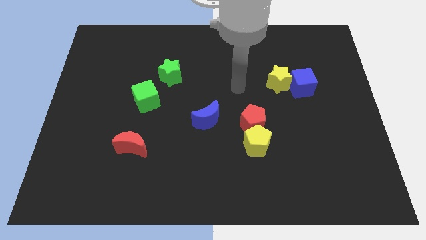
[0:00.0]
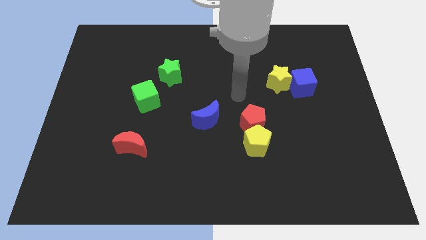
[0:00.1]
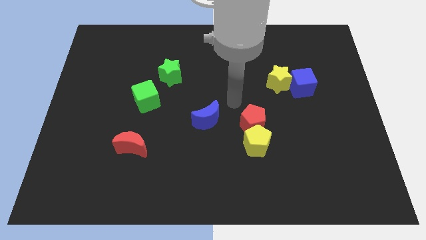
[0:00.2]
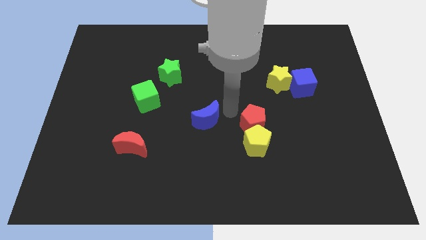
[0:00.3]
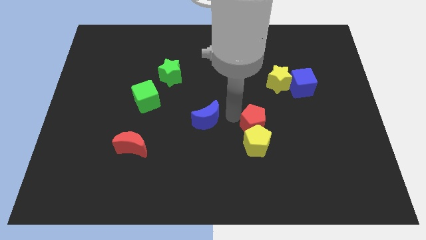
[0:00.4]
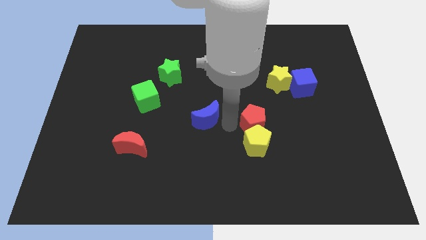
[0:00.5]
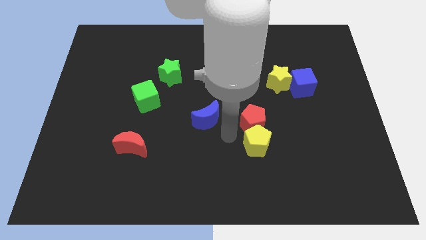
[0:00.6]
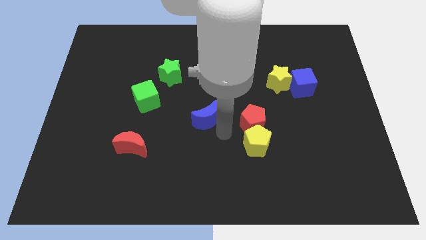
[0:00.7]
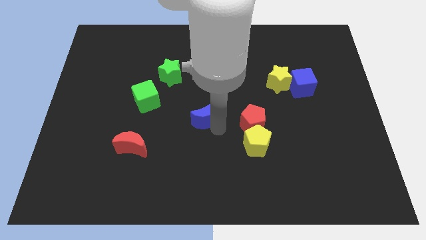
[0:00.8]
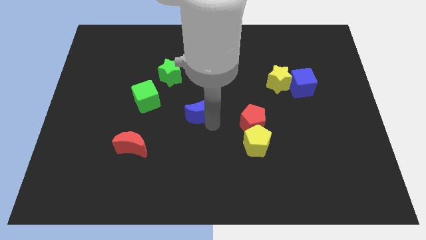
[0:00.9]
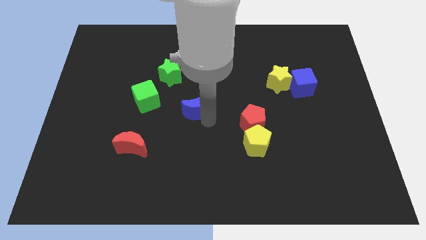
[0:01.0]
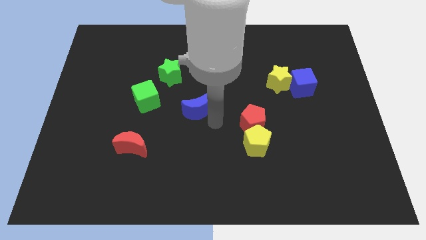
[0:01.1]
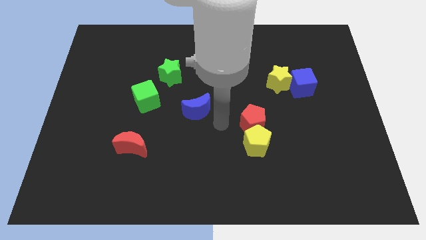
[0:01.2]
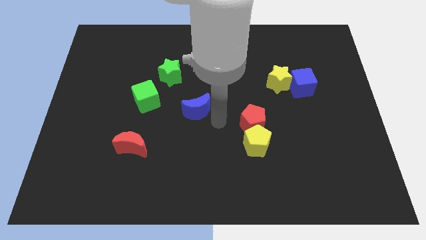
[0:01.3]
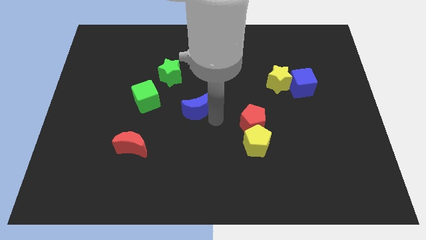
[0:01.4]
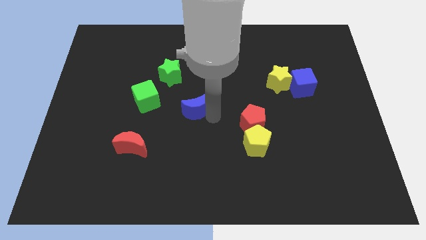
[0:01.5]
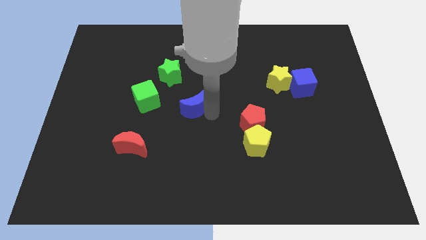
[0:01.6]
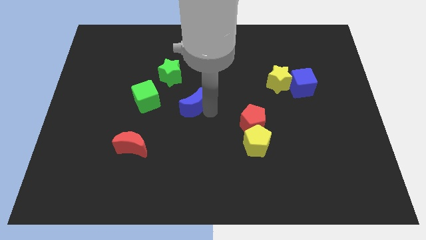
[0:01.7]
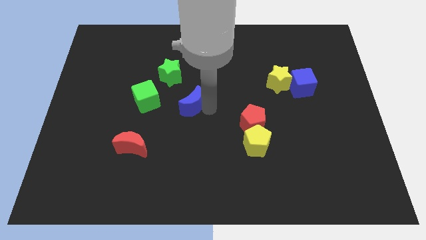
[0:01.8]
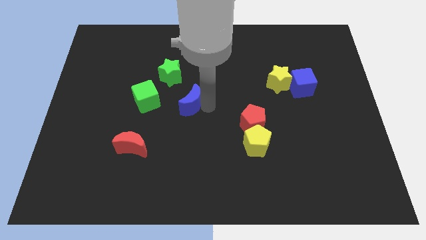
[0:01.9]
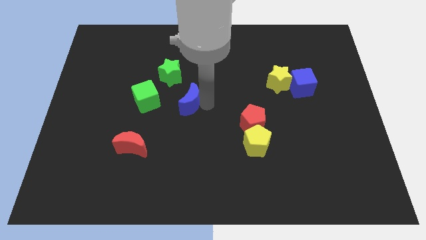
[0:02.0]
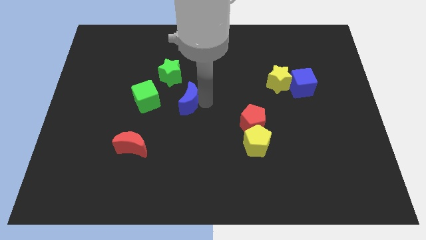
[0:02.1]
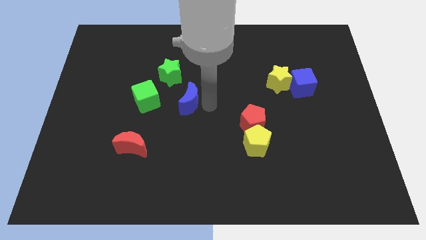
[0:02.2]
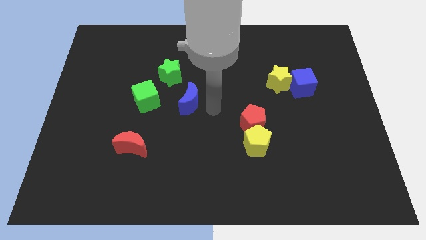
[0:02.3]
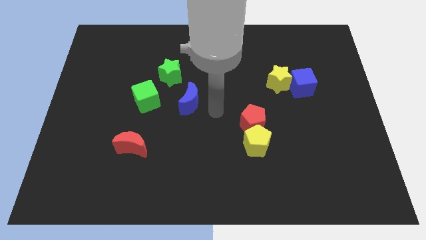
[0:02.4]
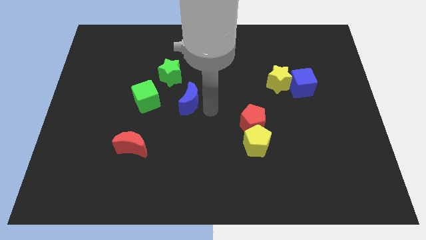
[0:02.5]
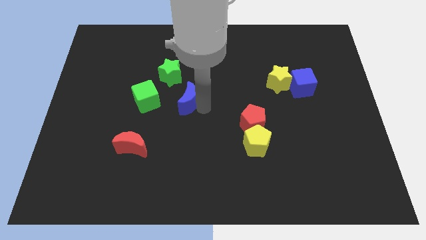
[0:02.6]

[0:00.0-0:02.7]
slightly move the blue moon upwards and left

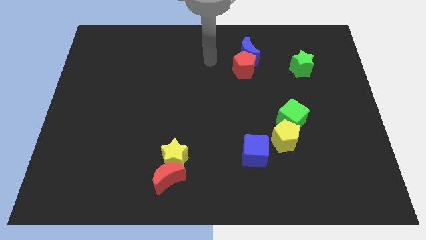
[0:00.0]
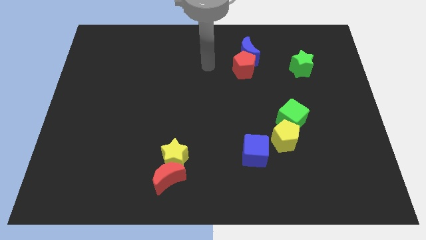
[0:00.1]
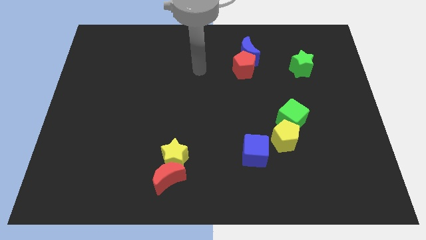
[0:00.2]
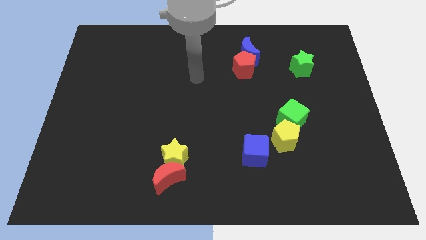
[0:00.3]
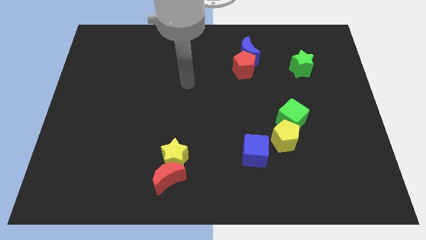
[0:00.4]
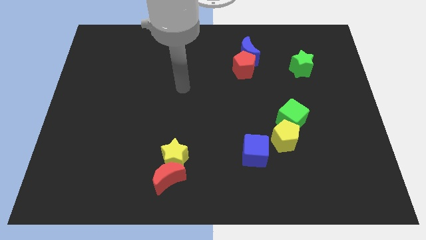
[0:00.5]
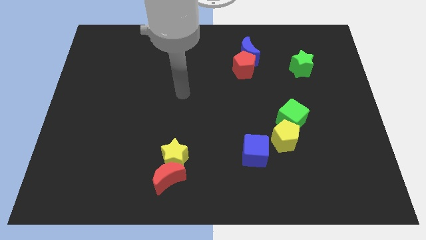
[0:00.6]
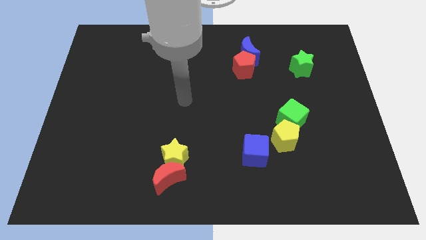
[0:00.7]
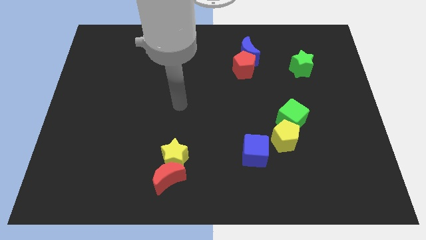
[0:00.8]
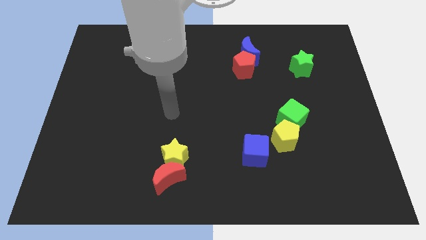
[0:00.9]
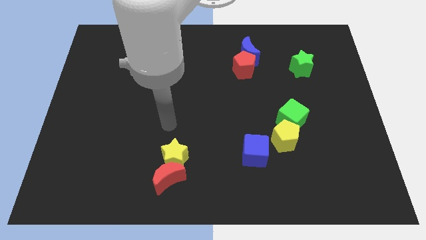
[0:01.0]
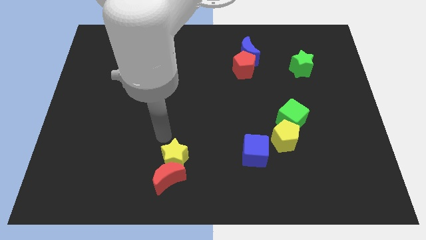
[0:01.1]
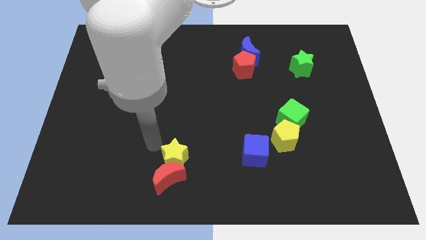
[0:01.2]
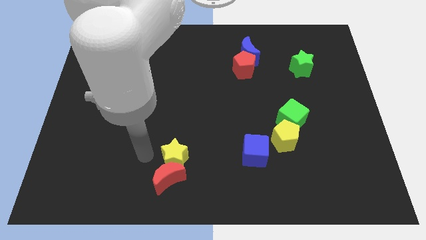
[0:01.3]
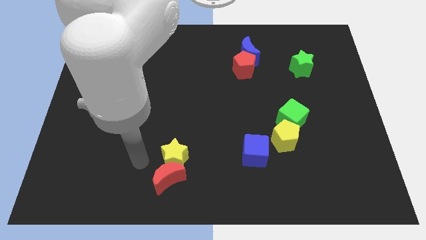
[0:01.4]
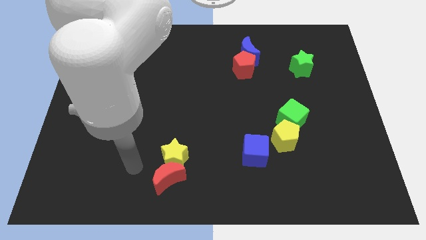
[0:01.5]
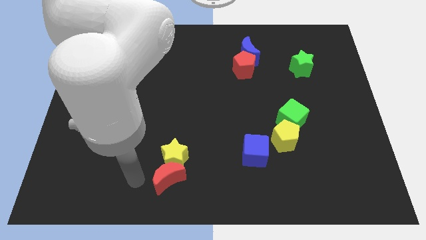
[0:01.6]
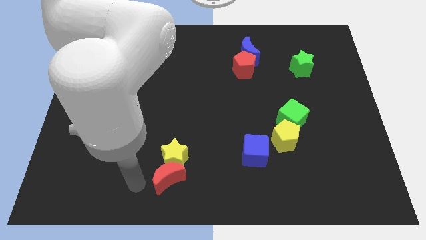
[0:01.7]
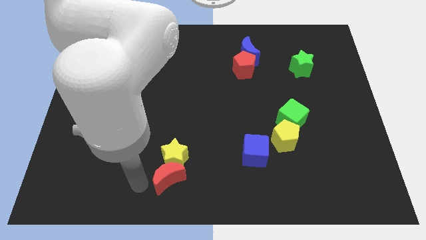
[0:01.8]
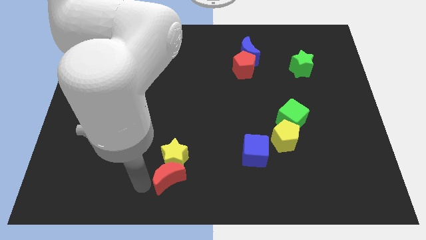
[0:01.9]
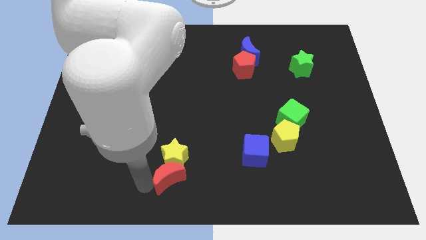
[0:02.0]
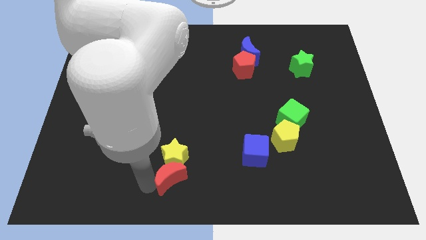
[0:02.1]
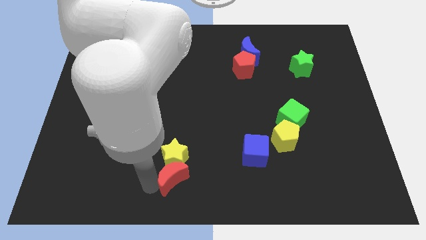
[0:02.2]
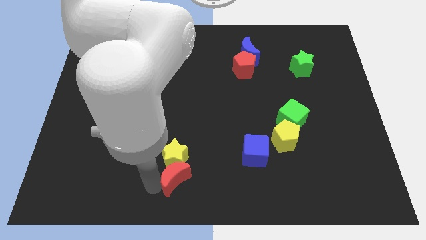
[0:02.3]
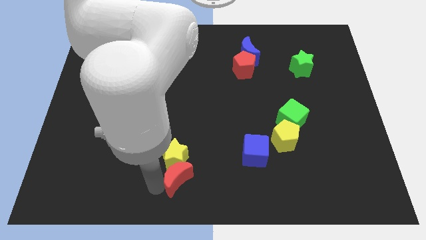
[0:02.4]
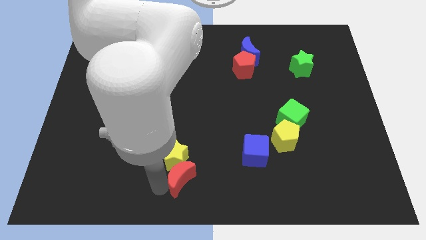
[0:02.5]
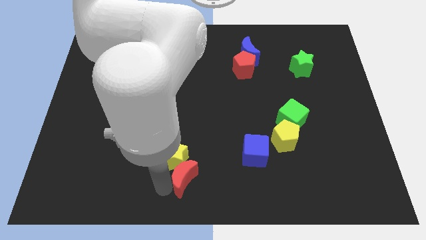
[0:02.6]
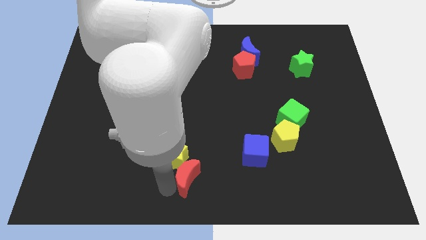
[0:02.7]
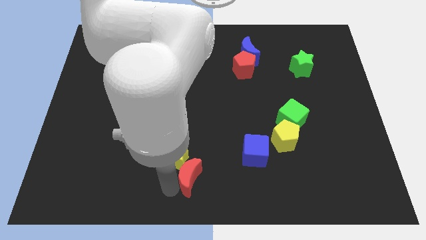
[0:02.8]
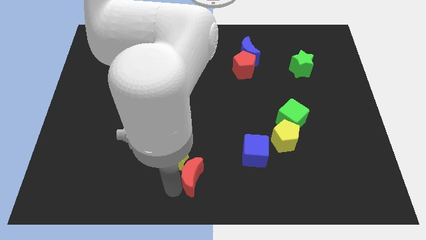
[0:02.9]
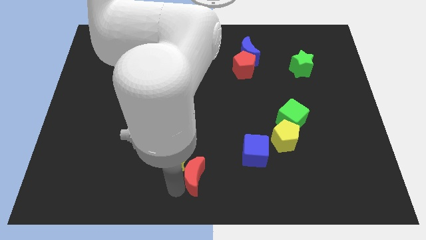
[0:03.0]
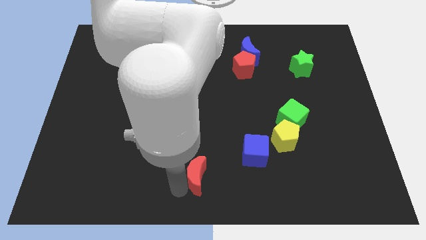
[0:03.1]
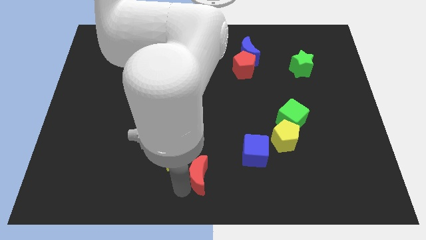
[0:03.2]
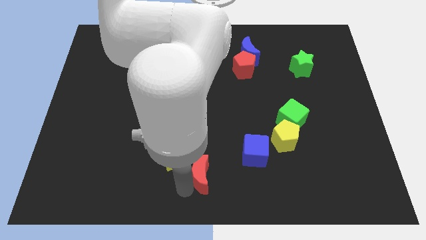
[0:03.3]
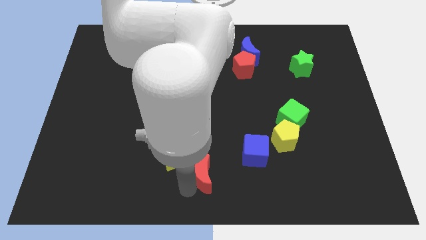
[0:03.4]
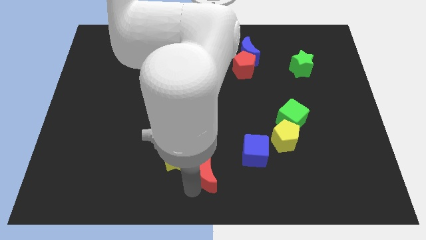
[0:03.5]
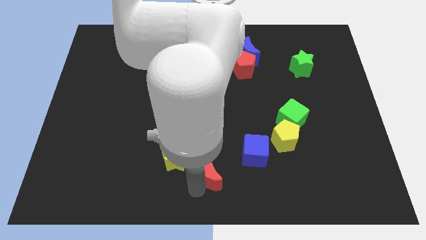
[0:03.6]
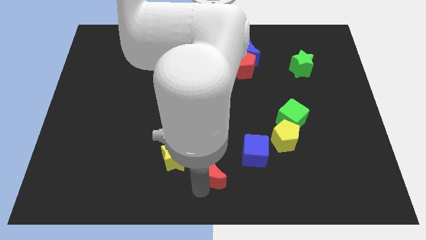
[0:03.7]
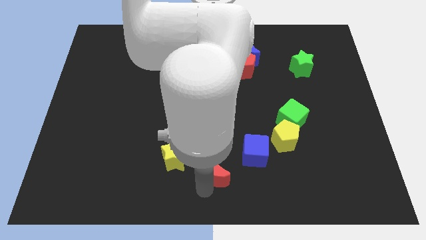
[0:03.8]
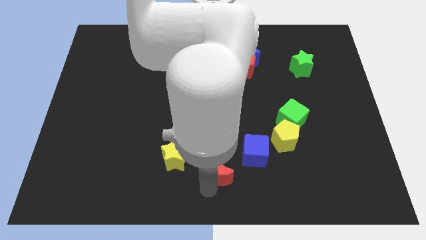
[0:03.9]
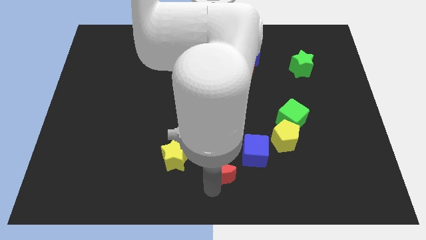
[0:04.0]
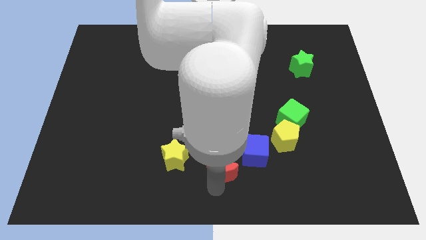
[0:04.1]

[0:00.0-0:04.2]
move the red moon somewhat up and then to the right

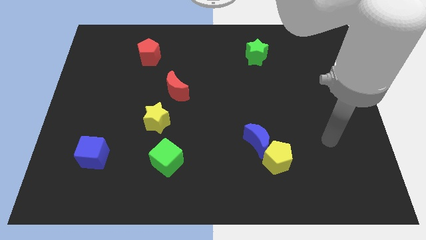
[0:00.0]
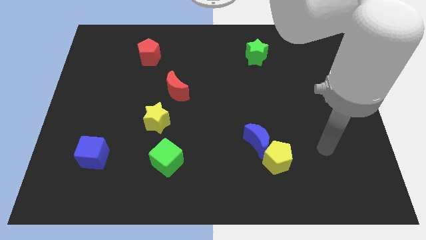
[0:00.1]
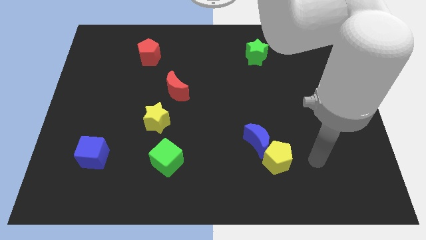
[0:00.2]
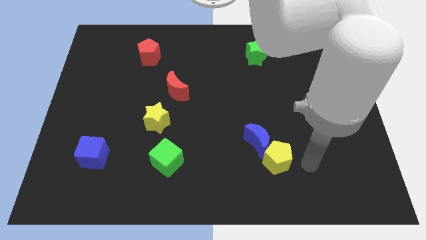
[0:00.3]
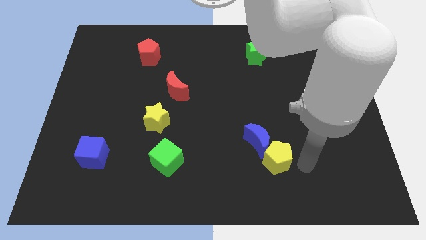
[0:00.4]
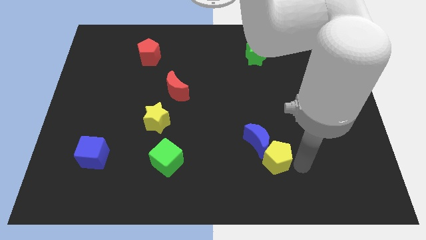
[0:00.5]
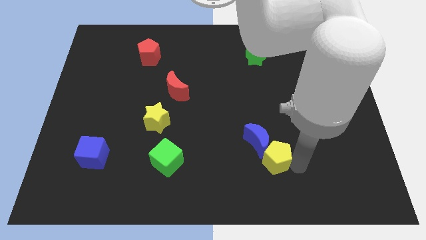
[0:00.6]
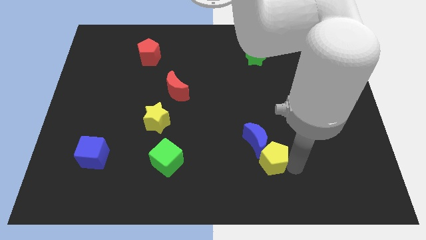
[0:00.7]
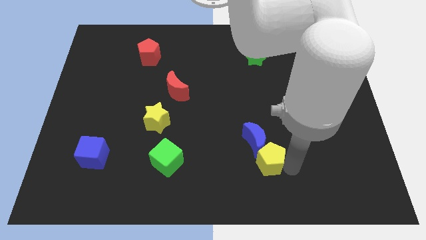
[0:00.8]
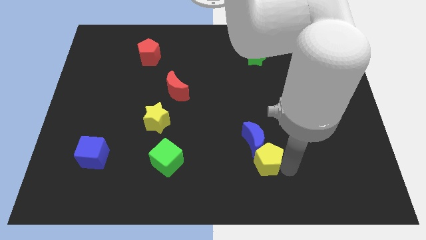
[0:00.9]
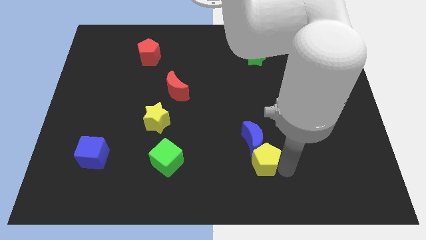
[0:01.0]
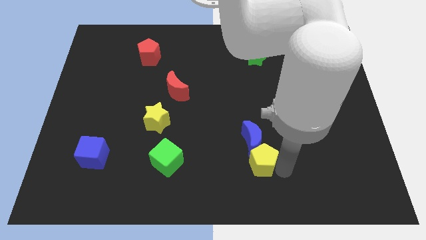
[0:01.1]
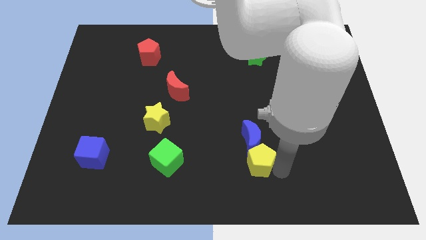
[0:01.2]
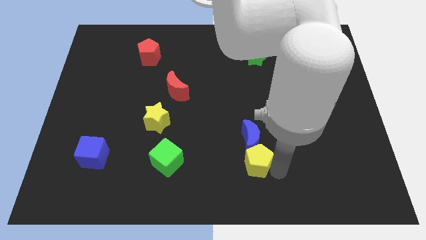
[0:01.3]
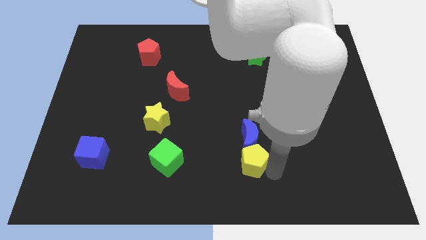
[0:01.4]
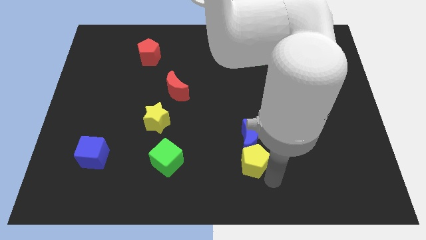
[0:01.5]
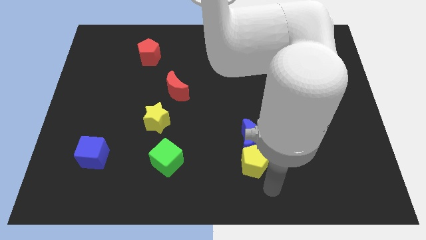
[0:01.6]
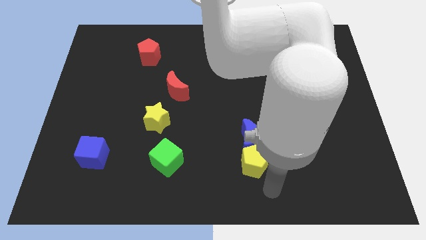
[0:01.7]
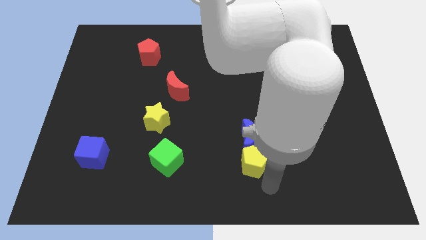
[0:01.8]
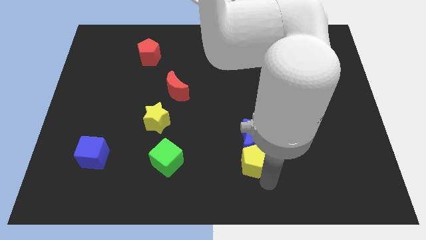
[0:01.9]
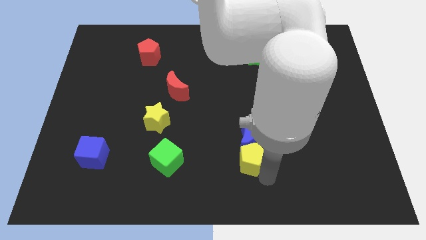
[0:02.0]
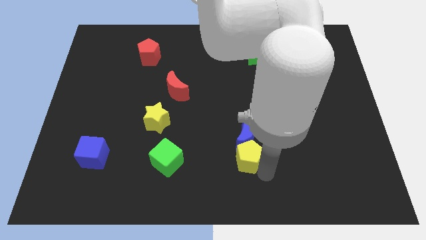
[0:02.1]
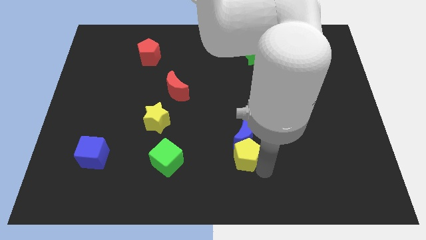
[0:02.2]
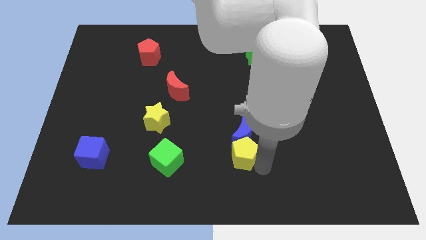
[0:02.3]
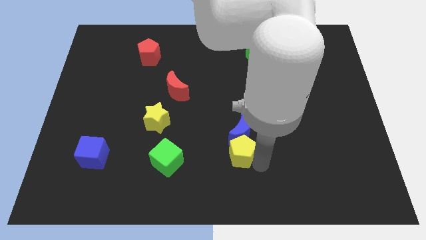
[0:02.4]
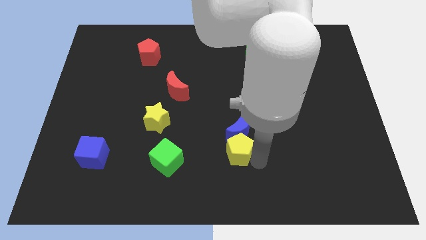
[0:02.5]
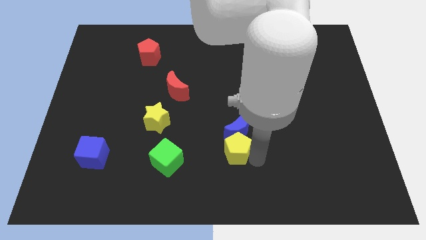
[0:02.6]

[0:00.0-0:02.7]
slide the yellow pentagon upwards and then left slightly
